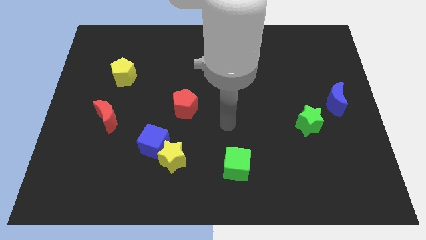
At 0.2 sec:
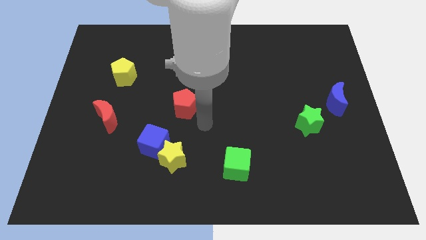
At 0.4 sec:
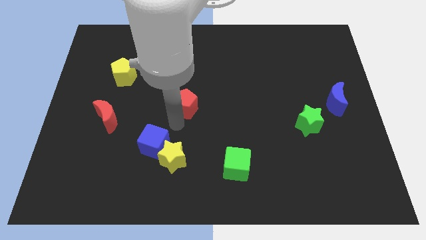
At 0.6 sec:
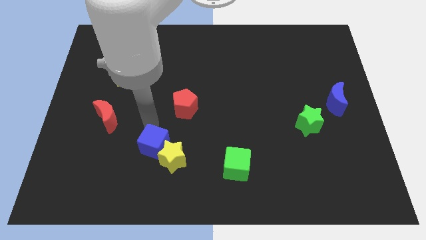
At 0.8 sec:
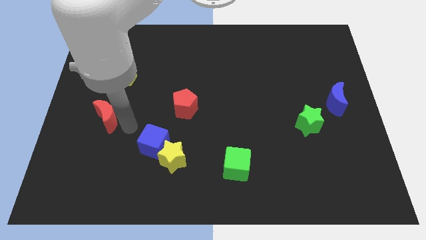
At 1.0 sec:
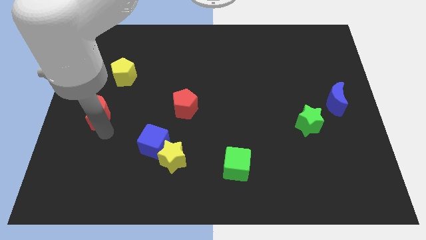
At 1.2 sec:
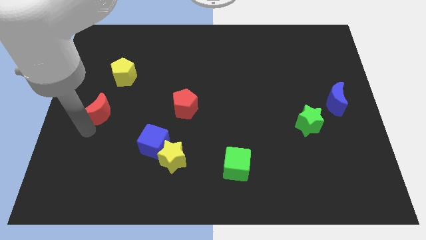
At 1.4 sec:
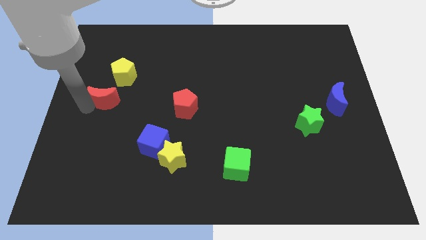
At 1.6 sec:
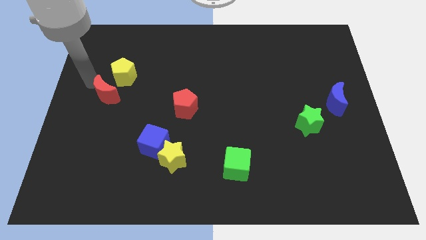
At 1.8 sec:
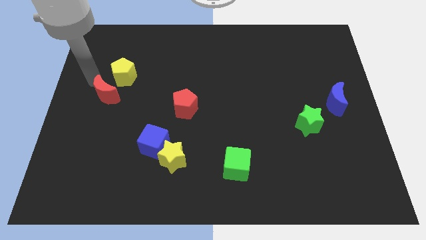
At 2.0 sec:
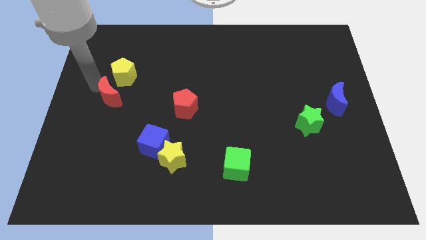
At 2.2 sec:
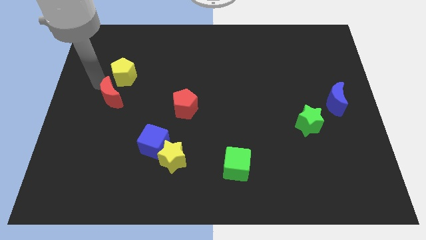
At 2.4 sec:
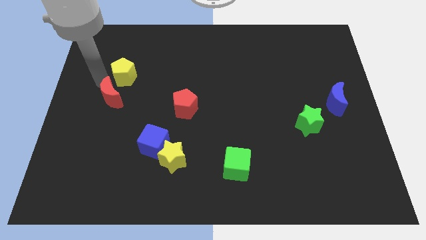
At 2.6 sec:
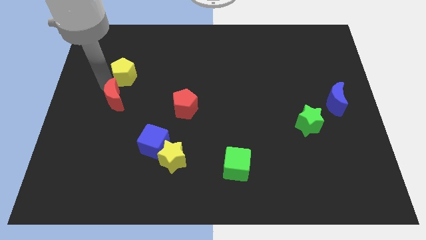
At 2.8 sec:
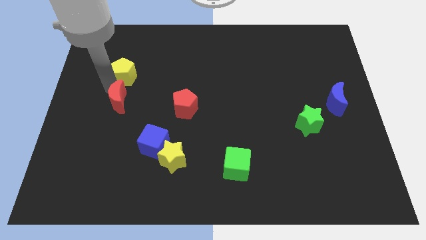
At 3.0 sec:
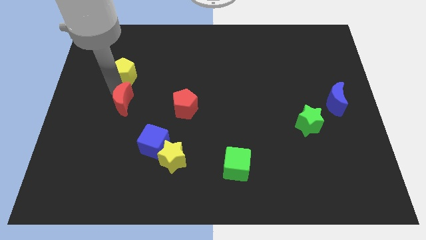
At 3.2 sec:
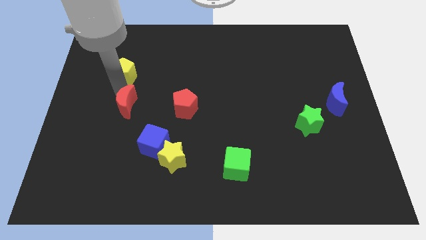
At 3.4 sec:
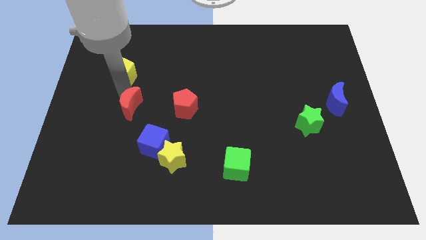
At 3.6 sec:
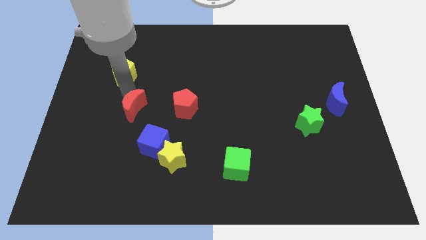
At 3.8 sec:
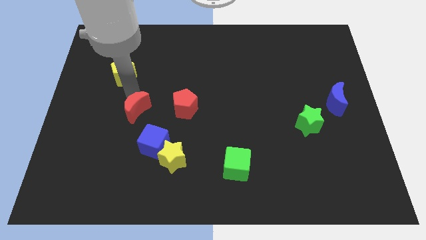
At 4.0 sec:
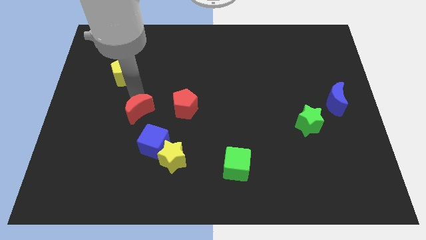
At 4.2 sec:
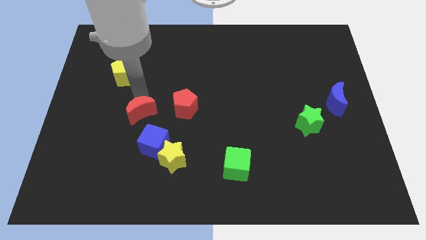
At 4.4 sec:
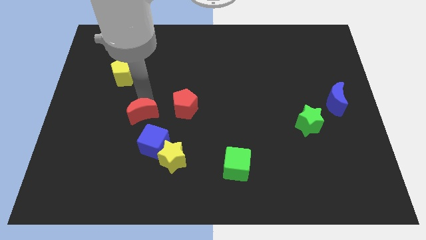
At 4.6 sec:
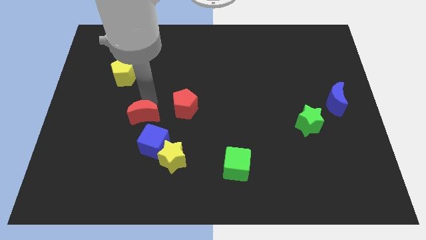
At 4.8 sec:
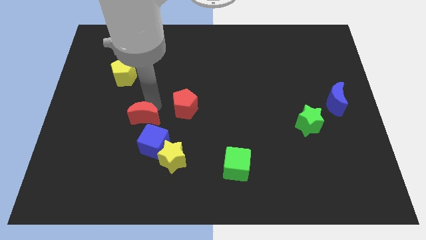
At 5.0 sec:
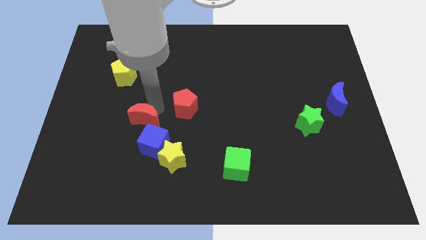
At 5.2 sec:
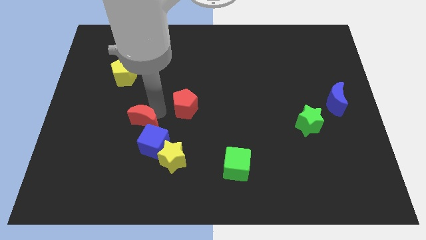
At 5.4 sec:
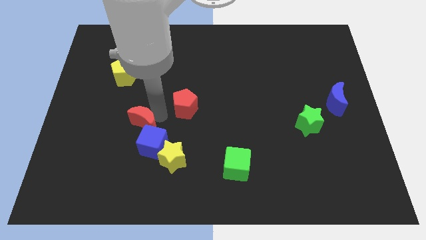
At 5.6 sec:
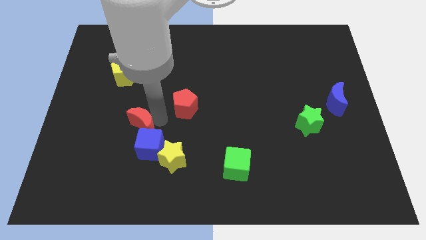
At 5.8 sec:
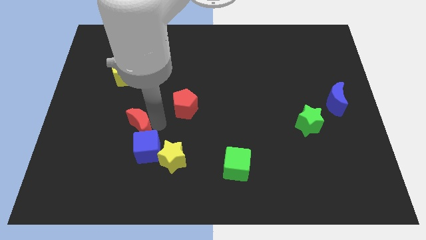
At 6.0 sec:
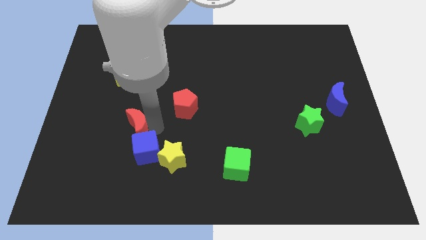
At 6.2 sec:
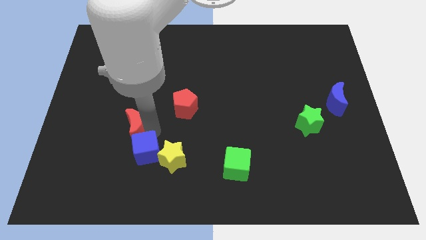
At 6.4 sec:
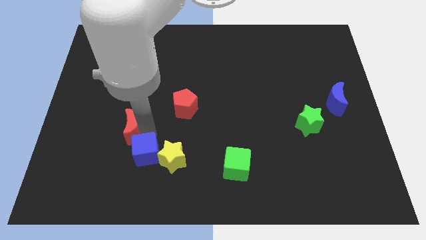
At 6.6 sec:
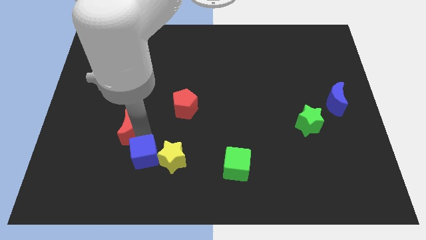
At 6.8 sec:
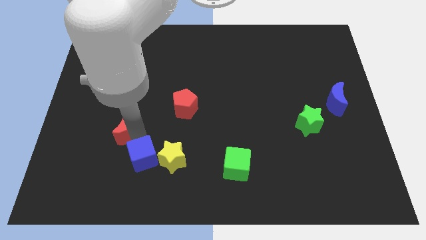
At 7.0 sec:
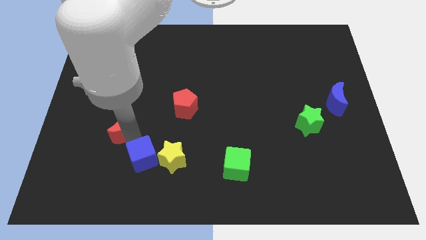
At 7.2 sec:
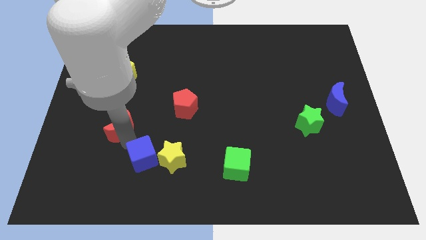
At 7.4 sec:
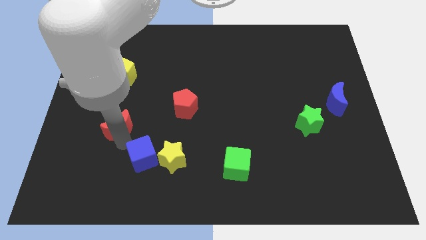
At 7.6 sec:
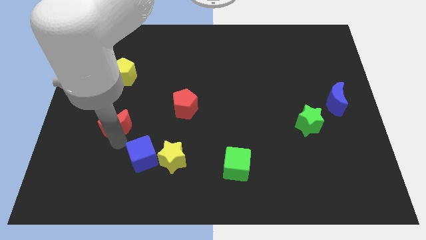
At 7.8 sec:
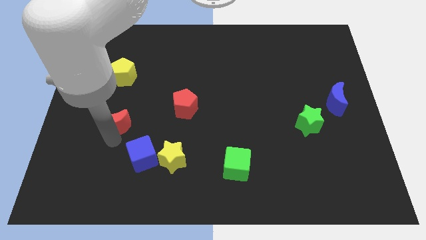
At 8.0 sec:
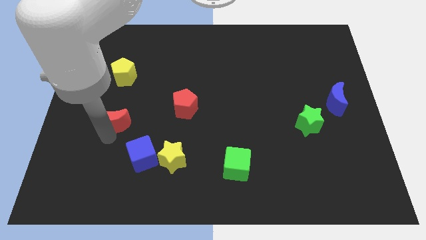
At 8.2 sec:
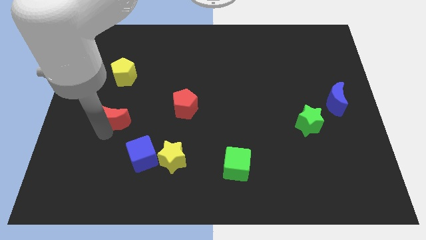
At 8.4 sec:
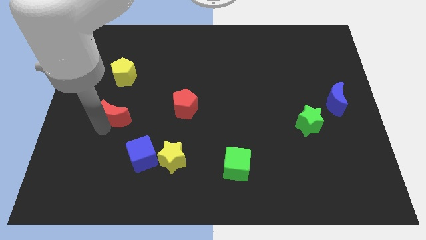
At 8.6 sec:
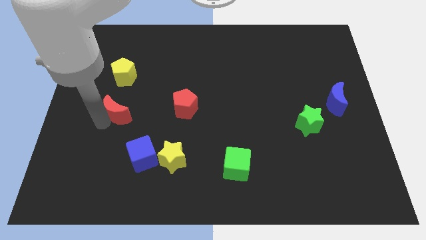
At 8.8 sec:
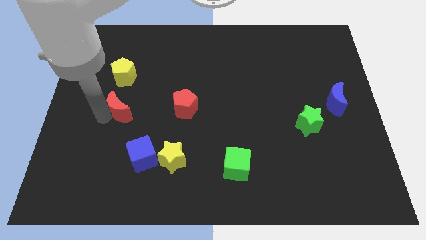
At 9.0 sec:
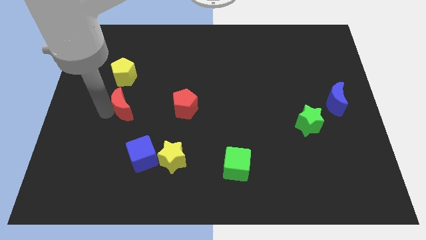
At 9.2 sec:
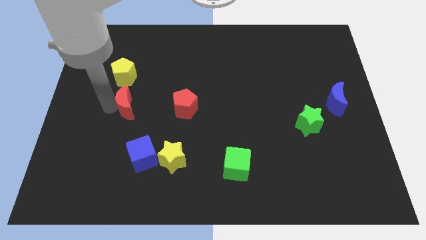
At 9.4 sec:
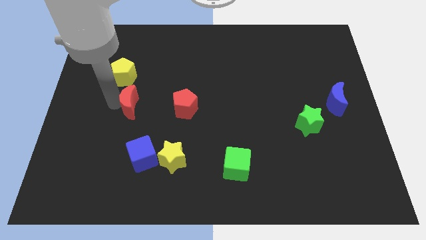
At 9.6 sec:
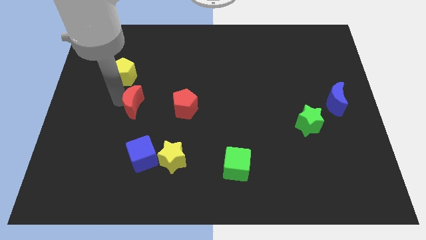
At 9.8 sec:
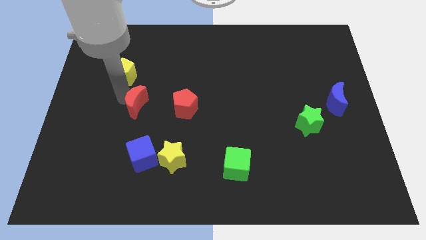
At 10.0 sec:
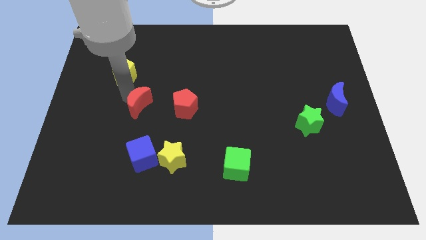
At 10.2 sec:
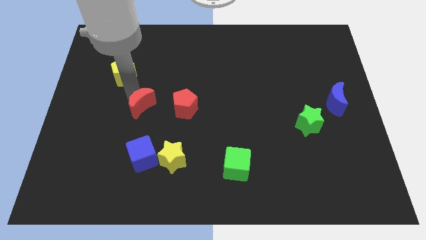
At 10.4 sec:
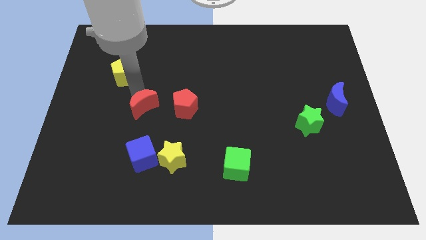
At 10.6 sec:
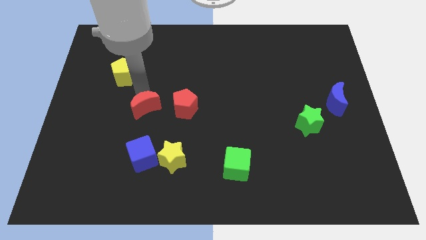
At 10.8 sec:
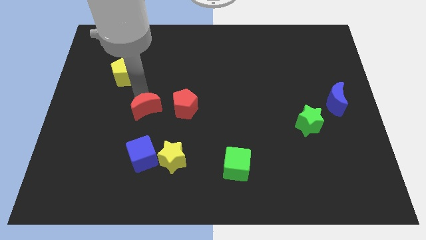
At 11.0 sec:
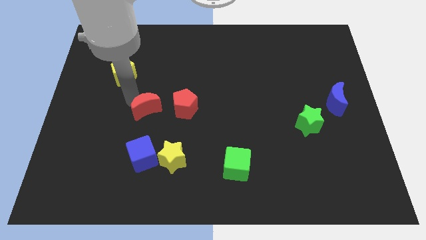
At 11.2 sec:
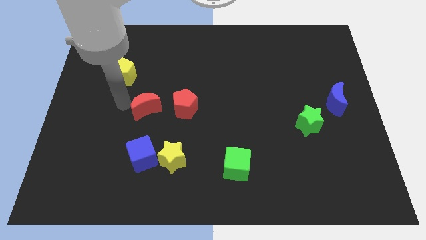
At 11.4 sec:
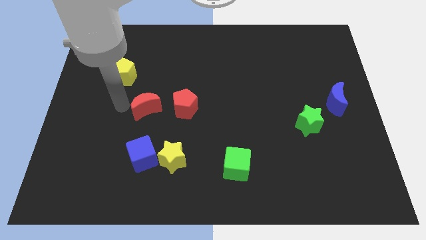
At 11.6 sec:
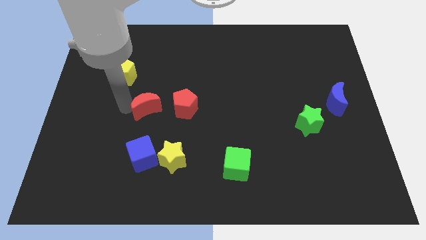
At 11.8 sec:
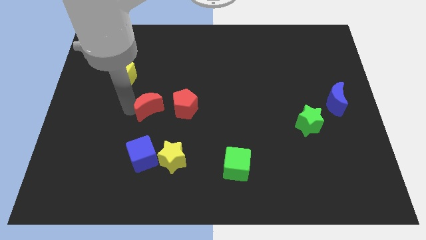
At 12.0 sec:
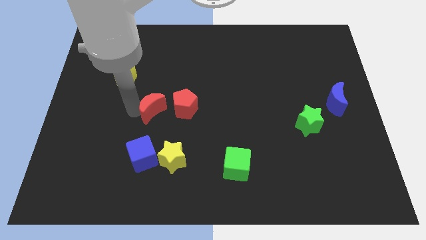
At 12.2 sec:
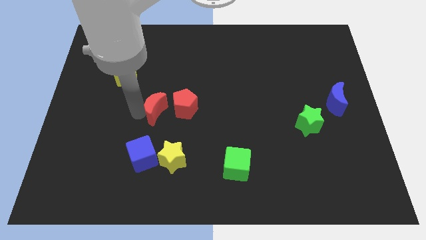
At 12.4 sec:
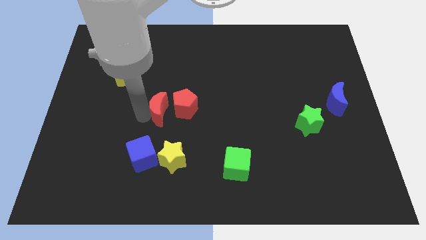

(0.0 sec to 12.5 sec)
move the red moon to the red pentagon

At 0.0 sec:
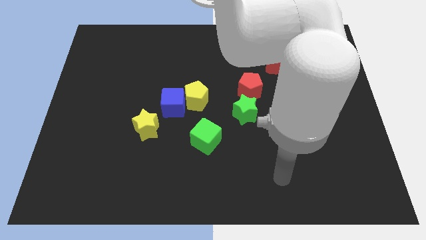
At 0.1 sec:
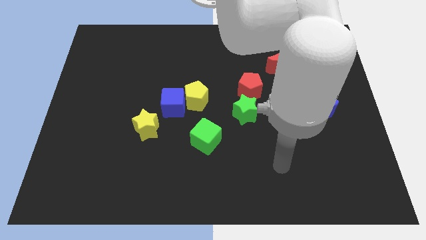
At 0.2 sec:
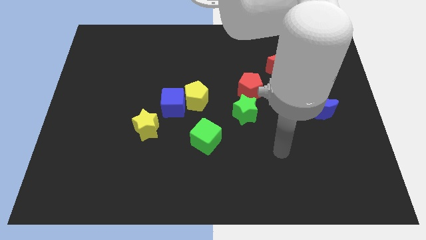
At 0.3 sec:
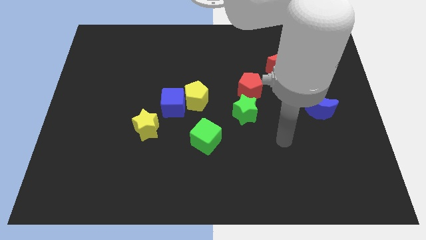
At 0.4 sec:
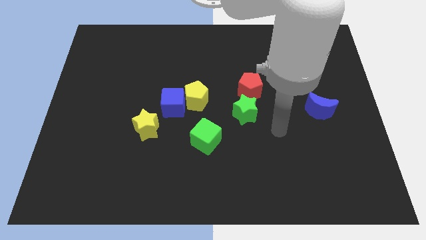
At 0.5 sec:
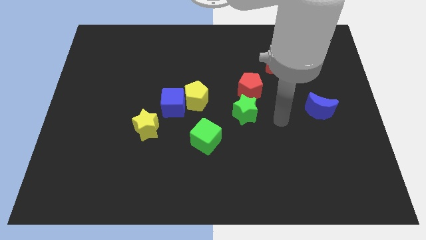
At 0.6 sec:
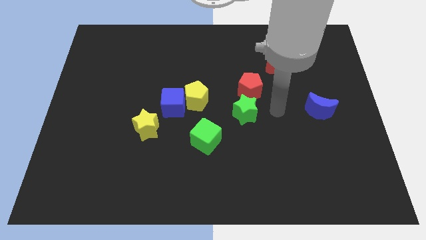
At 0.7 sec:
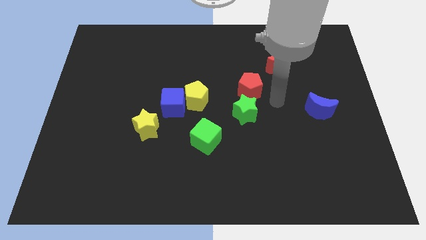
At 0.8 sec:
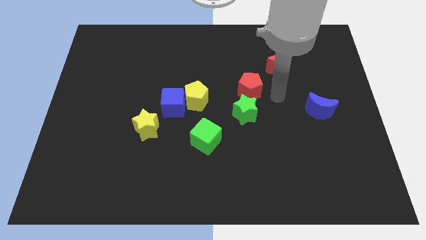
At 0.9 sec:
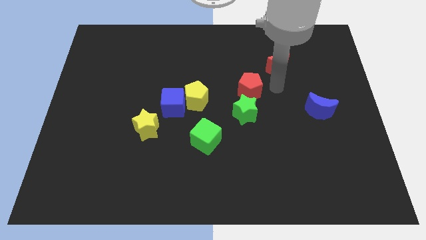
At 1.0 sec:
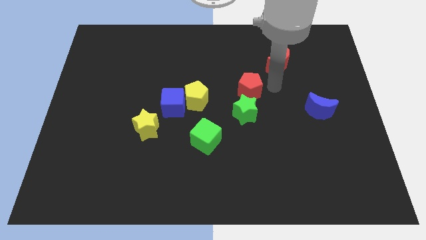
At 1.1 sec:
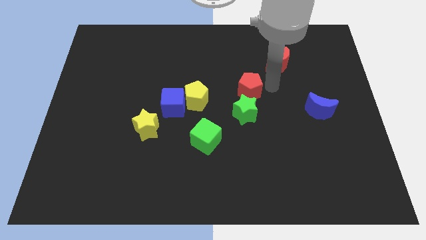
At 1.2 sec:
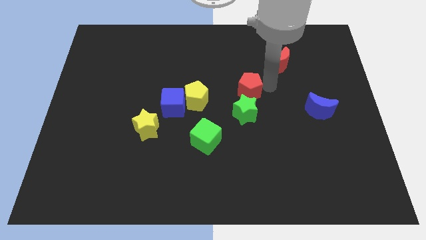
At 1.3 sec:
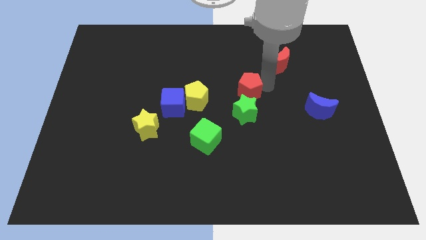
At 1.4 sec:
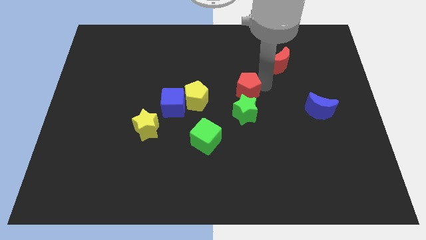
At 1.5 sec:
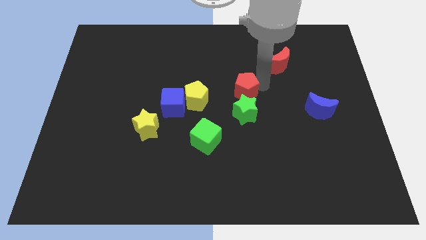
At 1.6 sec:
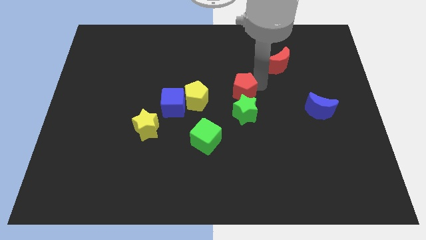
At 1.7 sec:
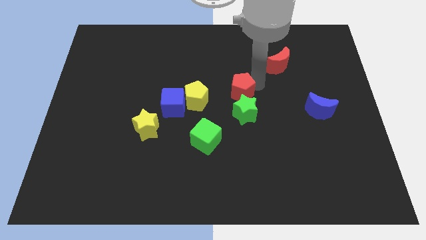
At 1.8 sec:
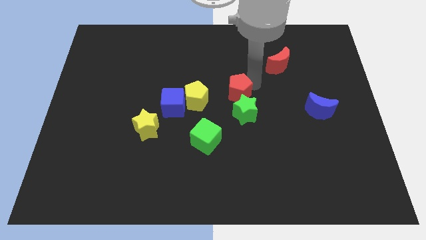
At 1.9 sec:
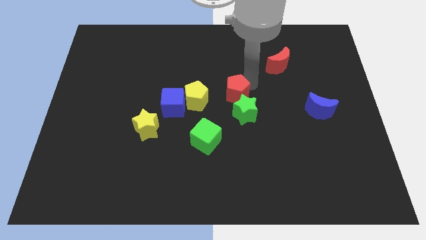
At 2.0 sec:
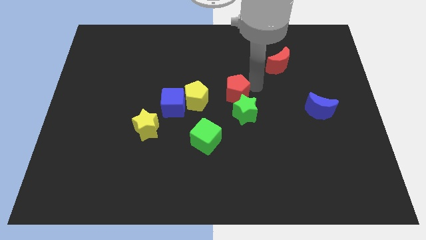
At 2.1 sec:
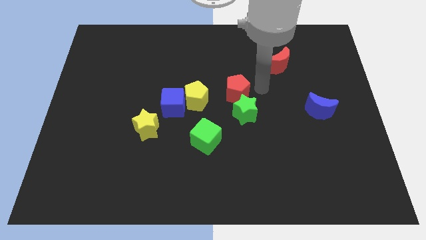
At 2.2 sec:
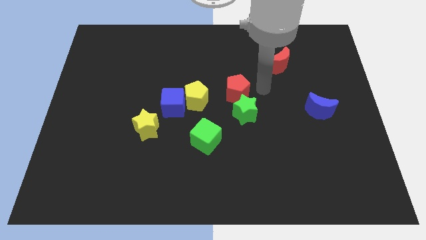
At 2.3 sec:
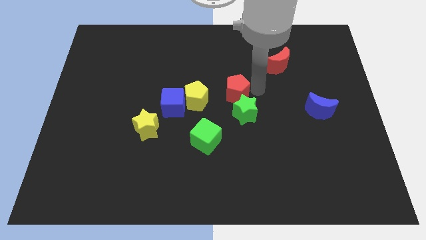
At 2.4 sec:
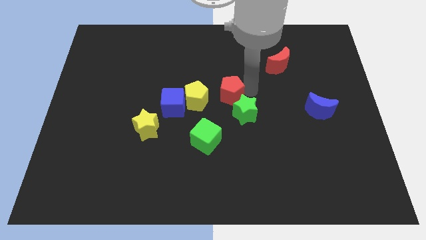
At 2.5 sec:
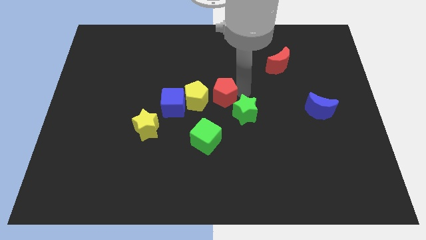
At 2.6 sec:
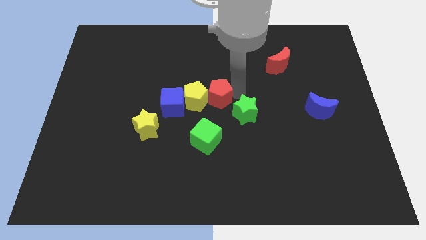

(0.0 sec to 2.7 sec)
move the red pentagon next to the yellow pentagon
